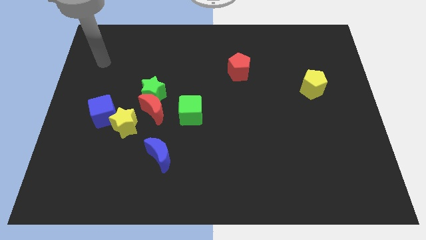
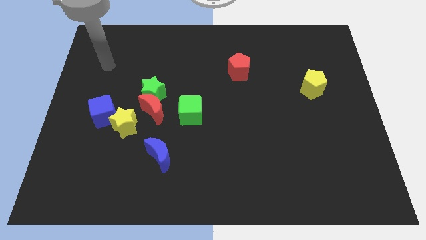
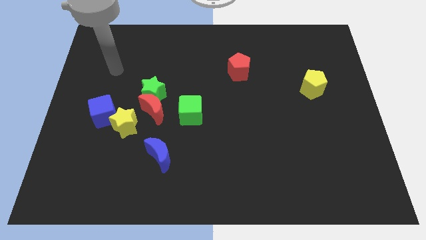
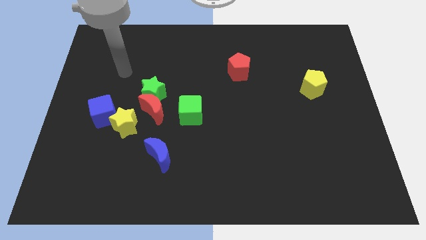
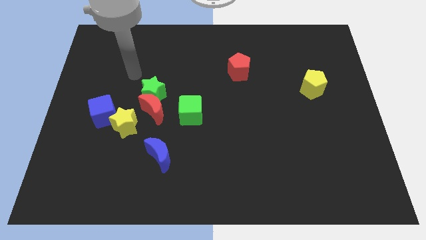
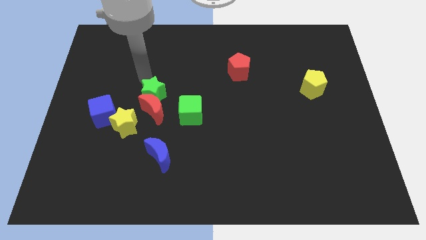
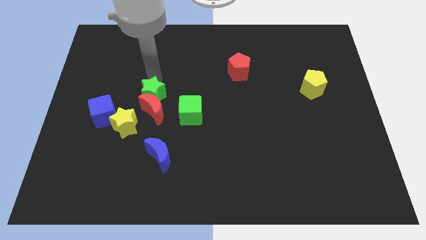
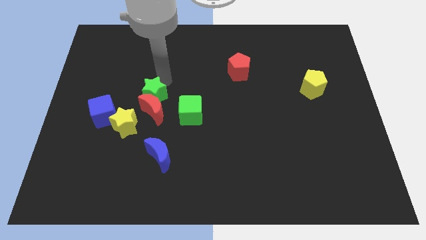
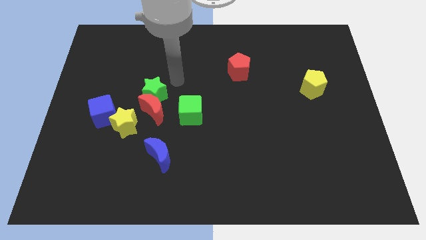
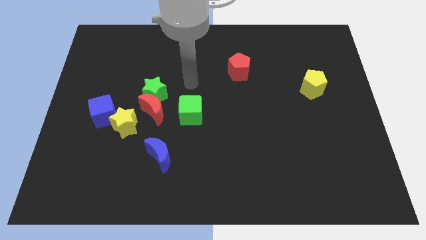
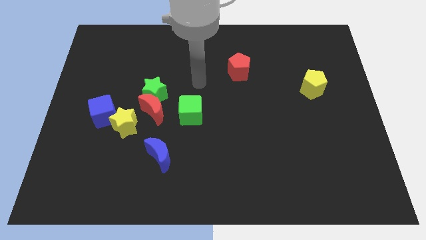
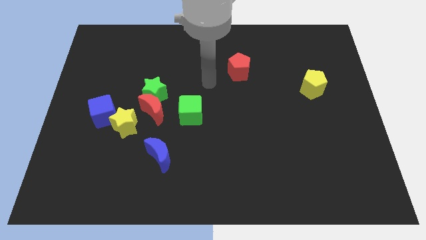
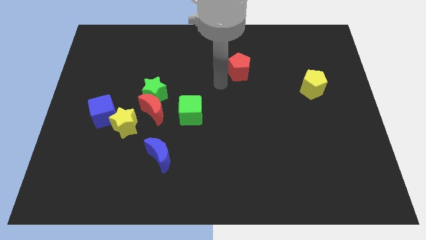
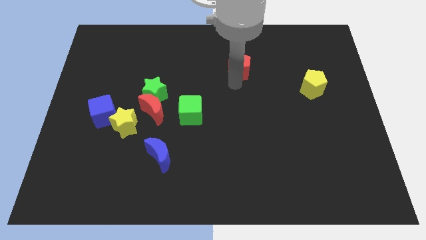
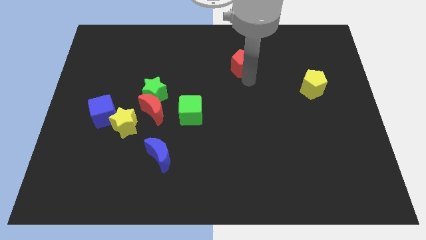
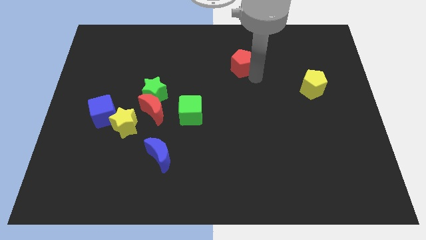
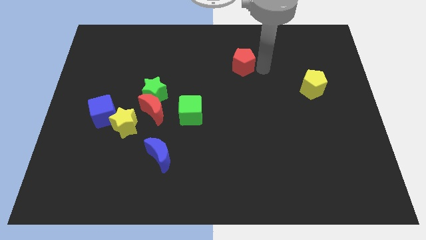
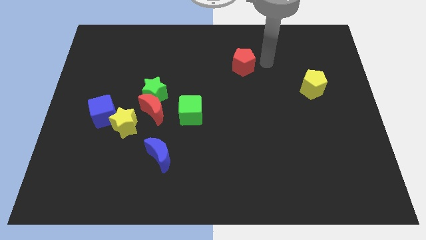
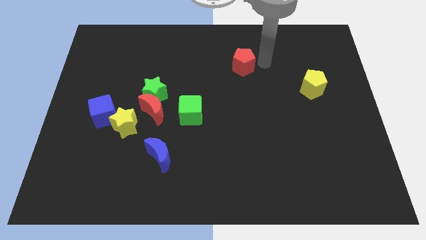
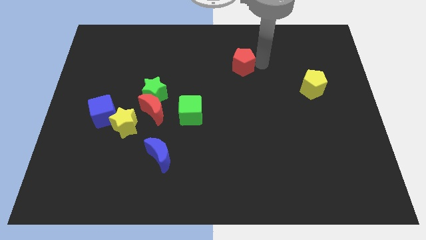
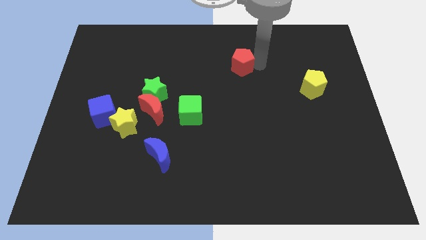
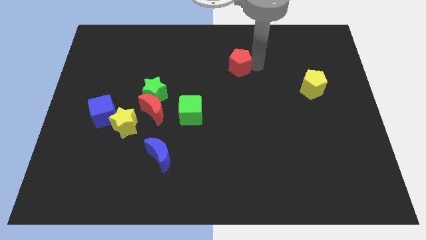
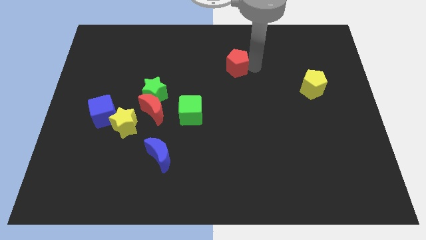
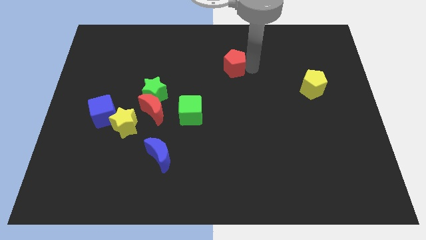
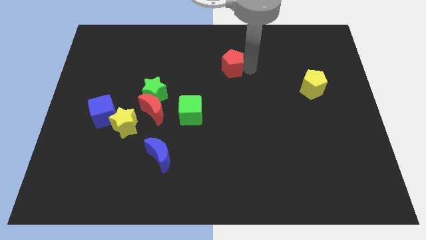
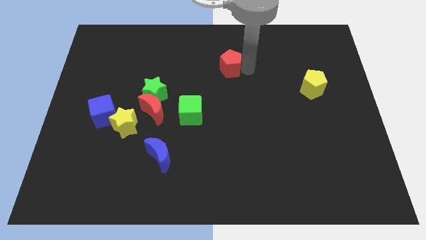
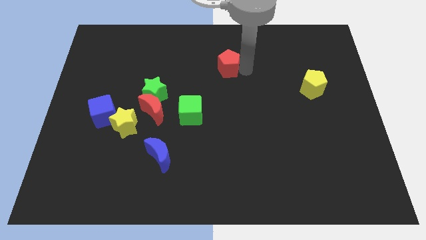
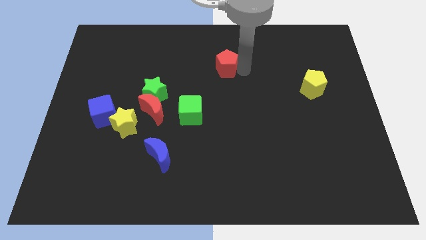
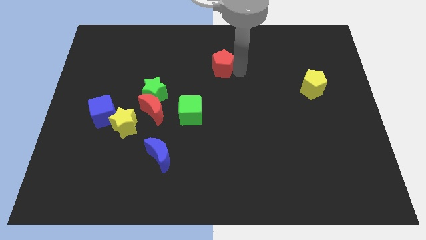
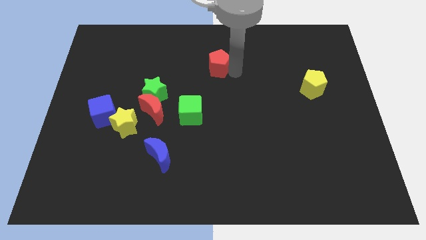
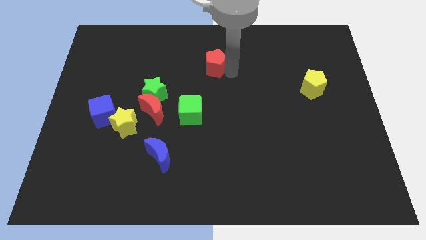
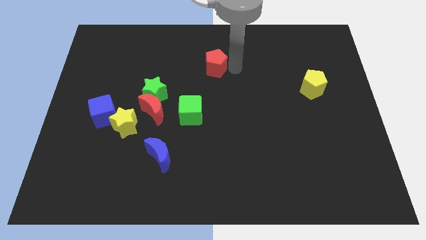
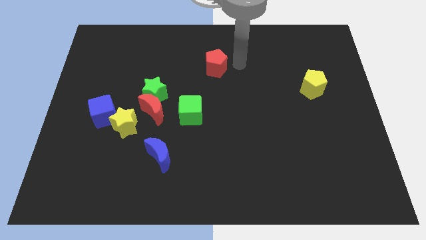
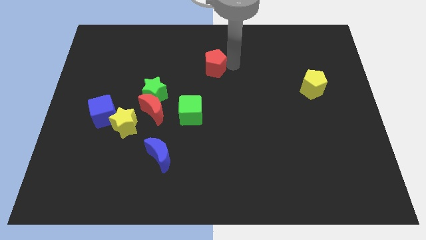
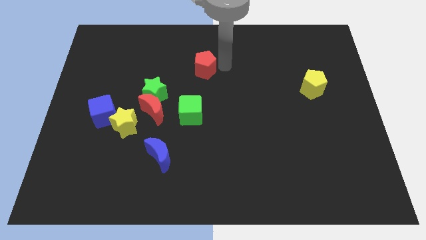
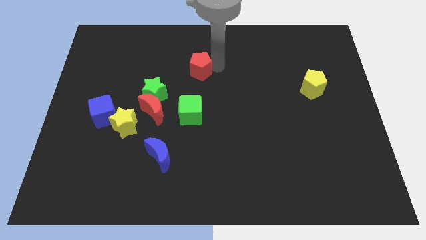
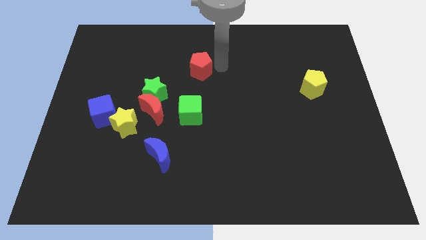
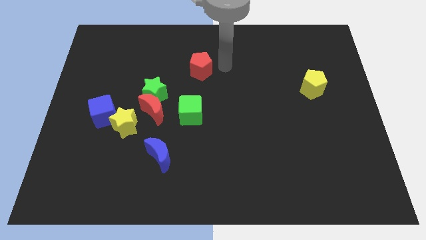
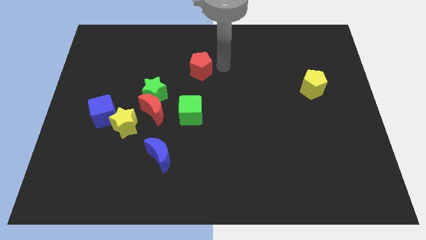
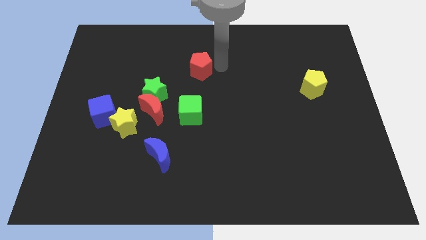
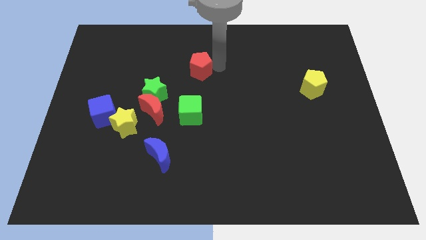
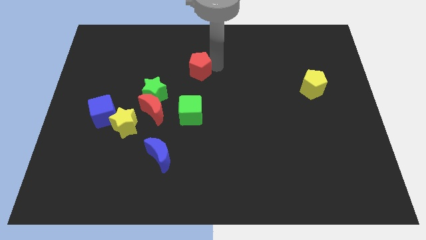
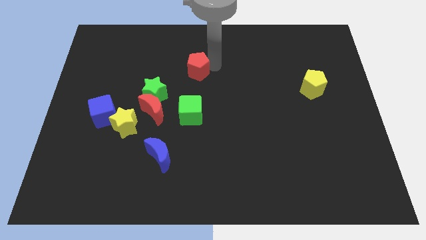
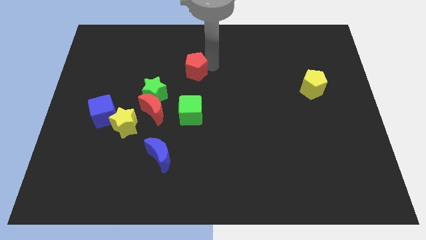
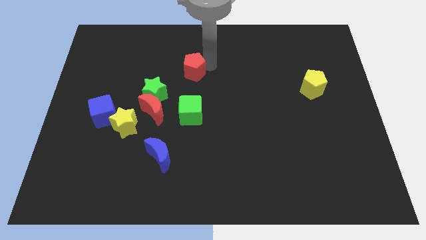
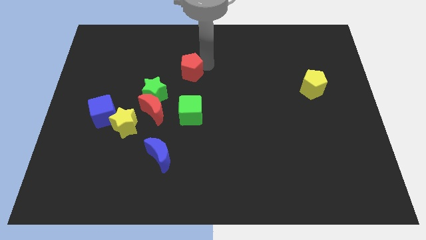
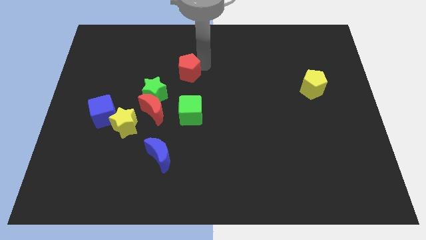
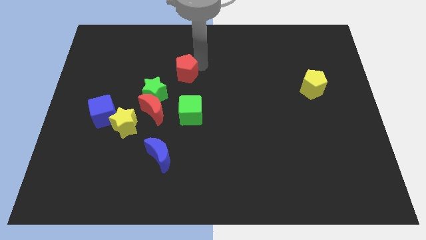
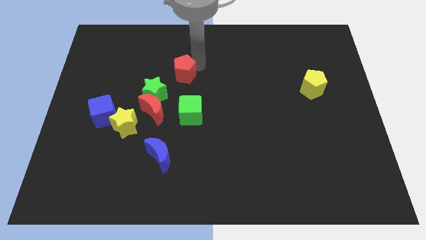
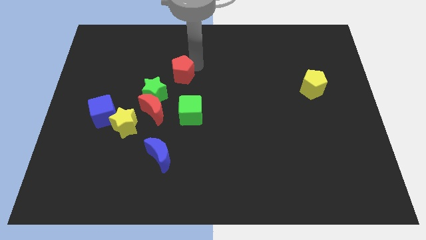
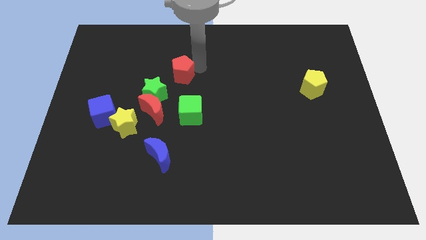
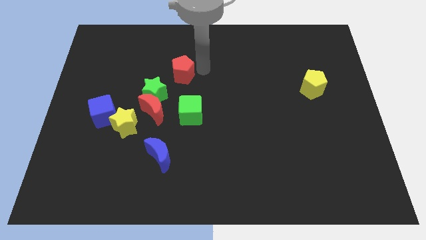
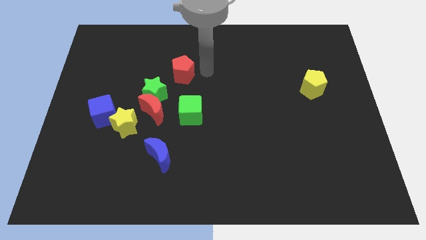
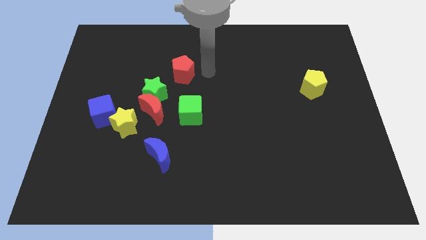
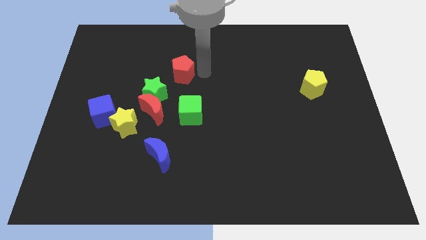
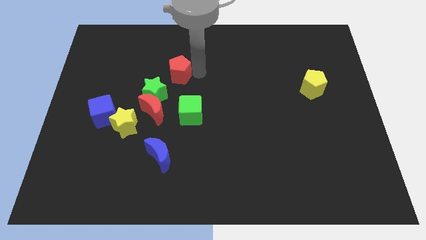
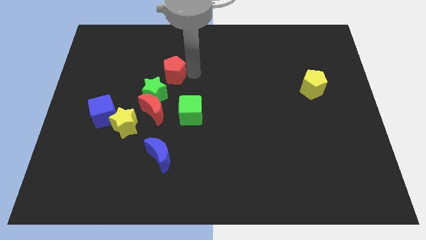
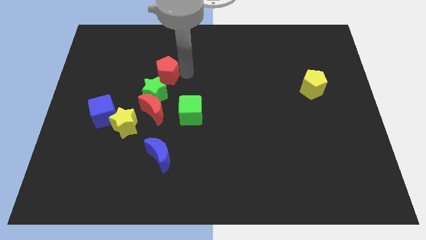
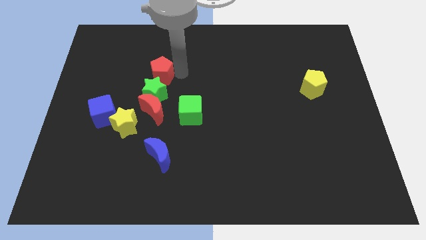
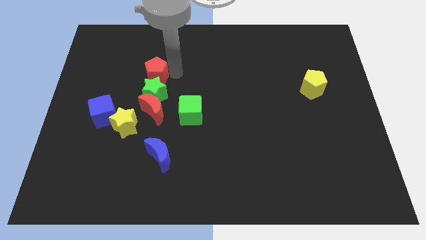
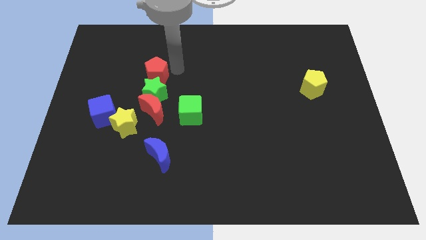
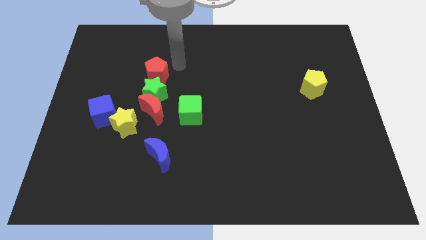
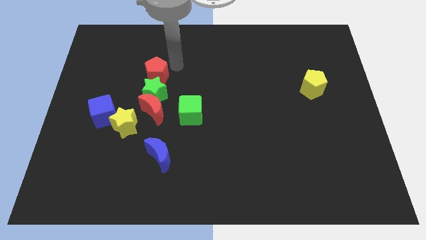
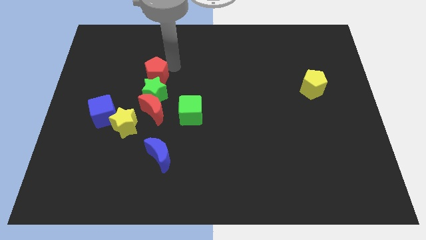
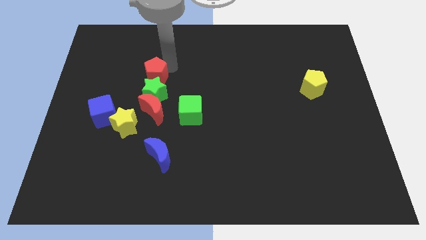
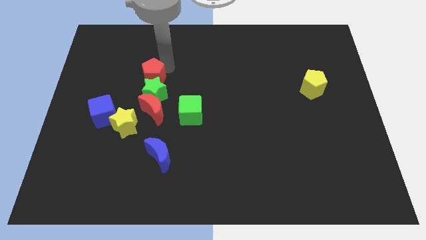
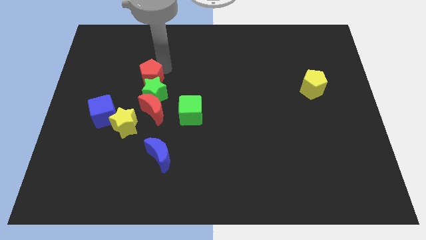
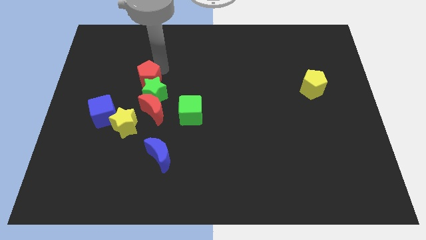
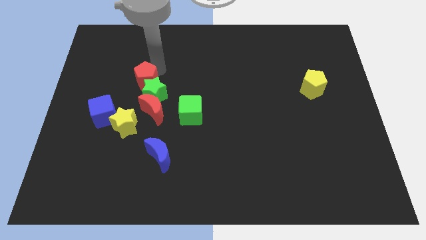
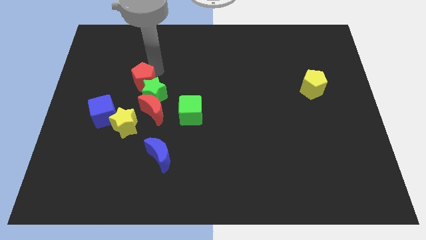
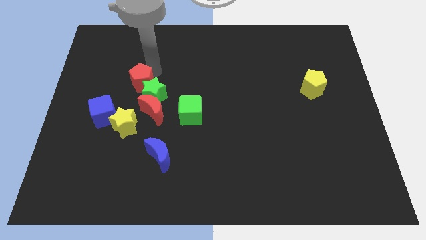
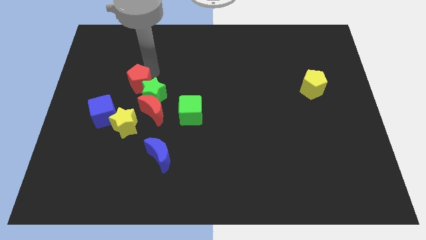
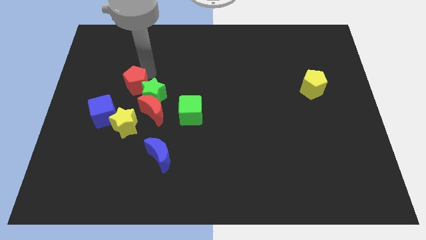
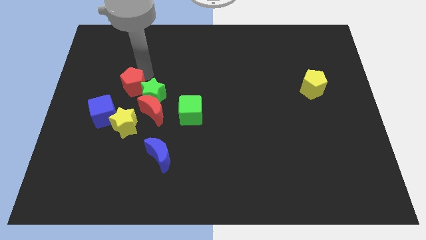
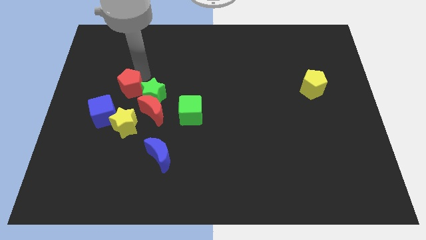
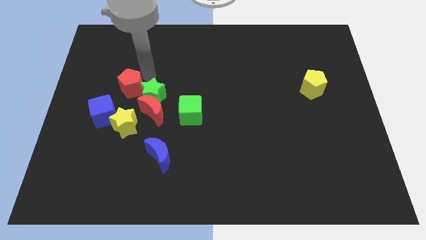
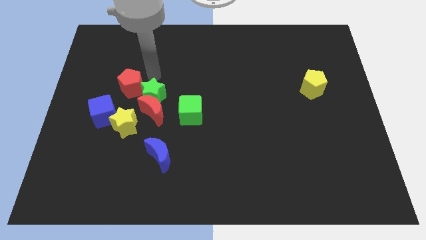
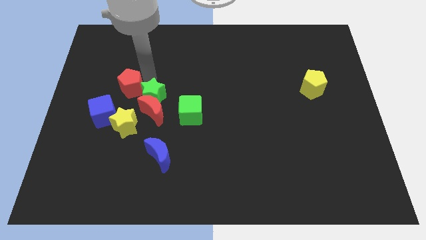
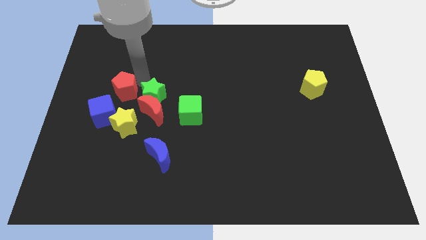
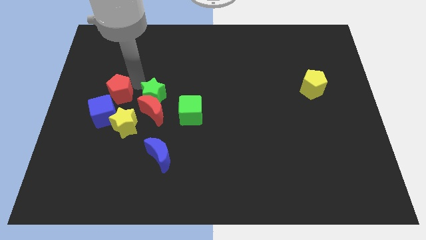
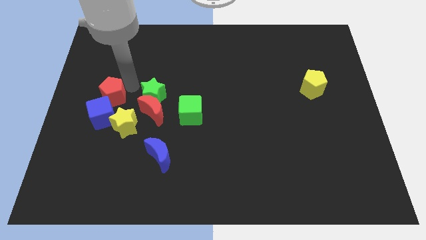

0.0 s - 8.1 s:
move the red pentagon next to the blue cube
